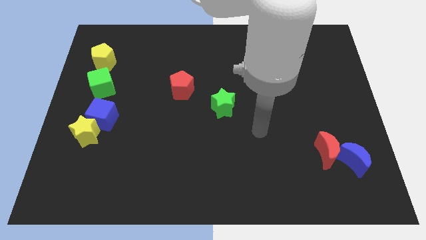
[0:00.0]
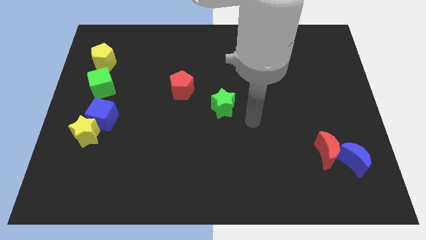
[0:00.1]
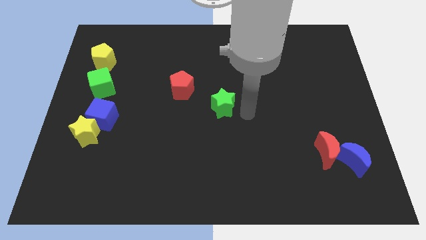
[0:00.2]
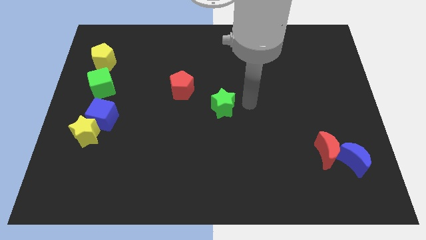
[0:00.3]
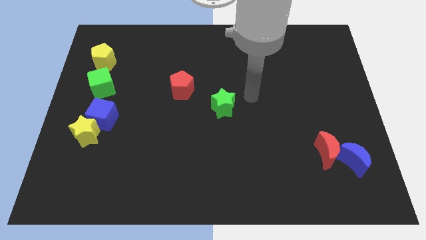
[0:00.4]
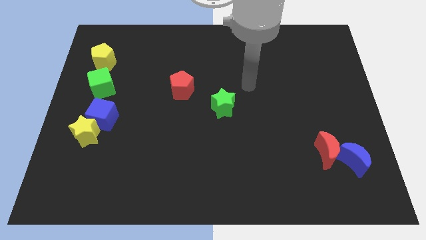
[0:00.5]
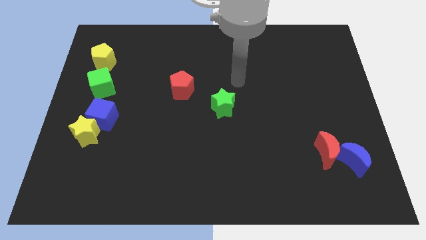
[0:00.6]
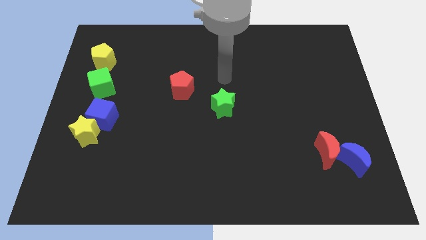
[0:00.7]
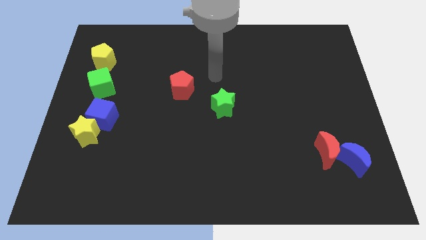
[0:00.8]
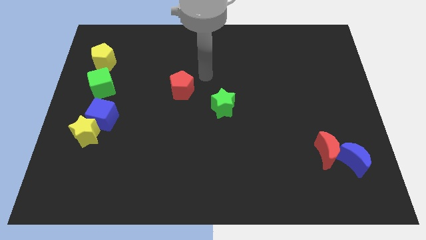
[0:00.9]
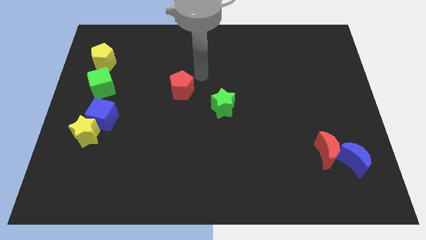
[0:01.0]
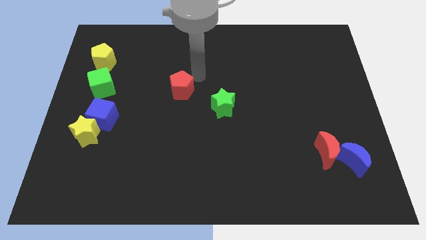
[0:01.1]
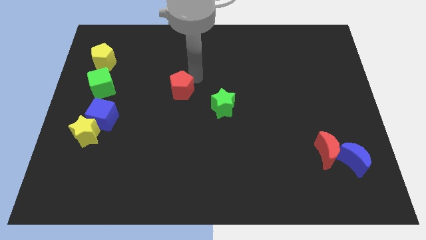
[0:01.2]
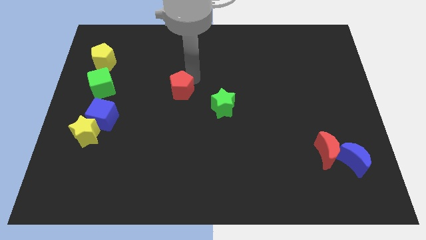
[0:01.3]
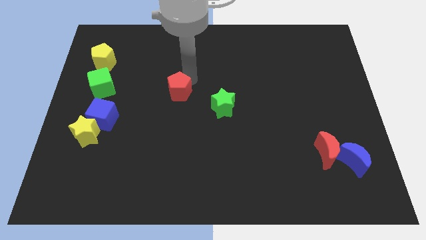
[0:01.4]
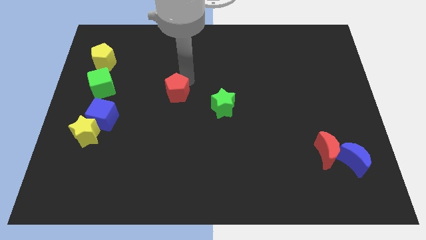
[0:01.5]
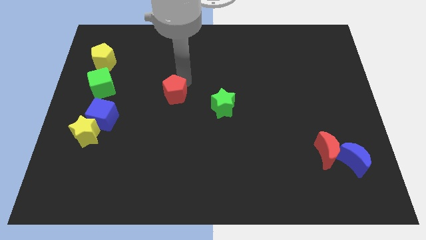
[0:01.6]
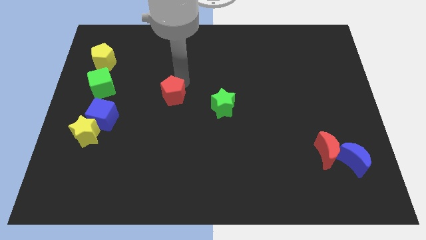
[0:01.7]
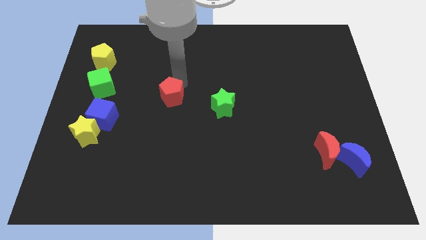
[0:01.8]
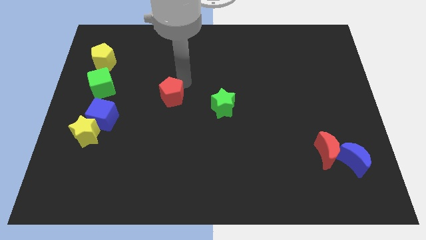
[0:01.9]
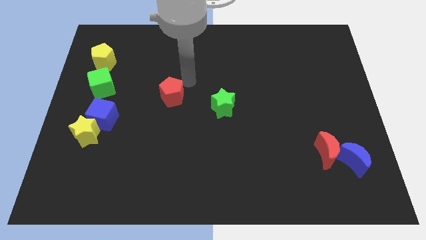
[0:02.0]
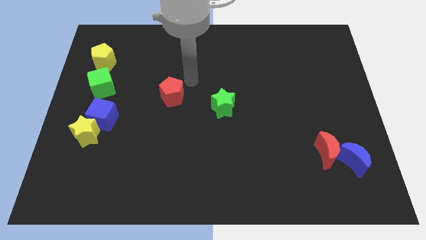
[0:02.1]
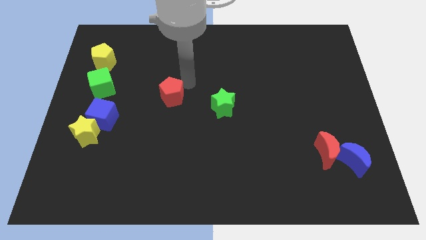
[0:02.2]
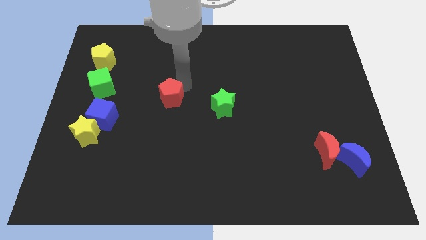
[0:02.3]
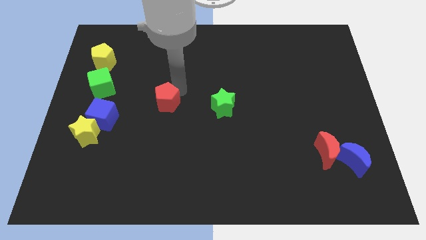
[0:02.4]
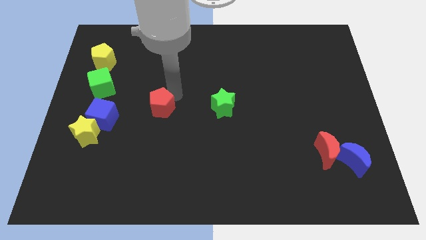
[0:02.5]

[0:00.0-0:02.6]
move the red pentagon somewhat downwards and to the left

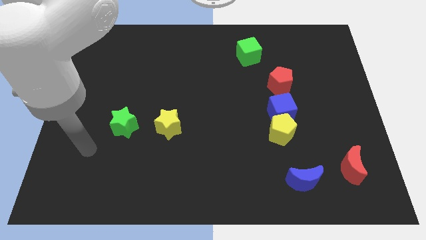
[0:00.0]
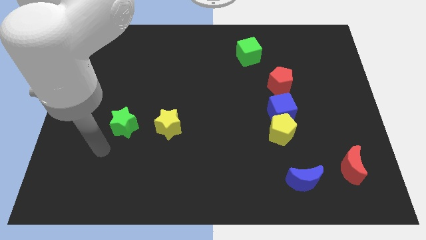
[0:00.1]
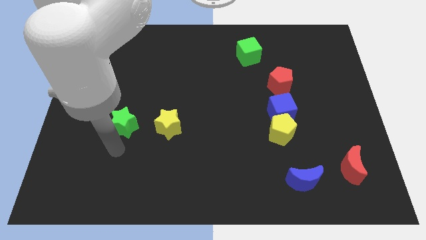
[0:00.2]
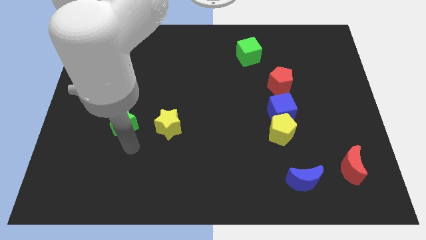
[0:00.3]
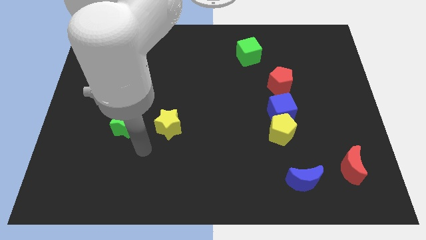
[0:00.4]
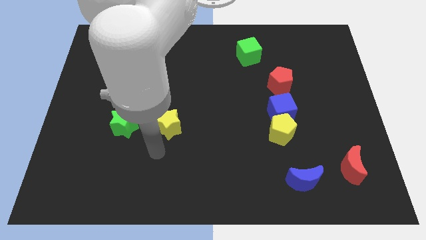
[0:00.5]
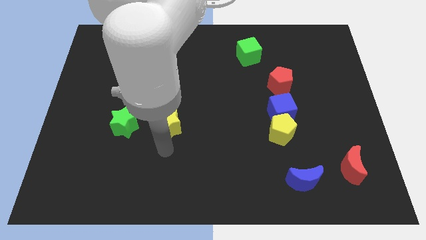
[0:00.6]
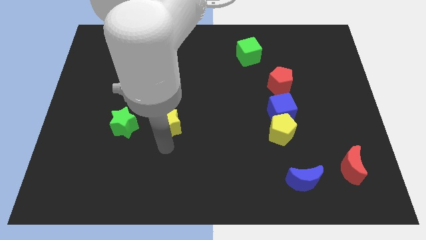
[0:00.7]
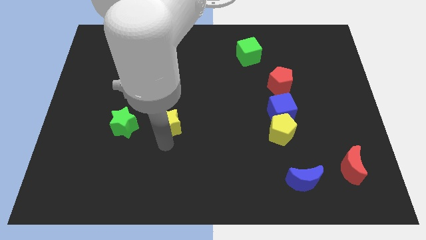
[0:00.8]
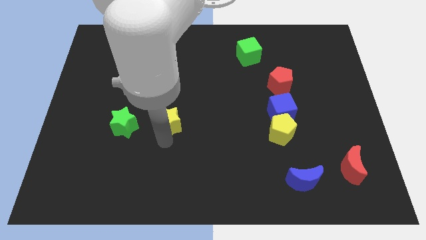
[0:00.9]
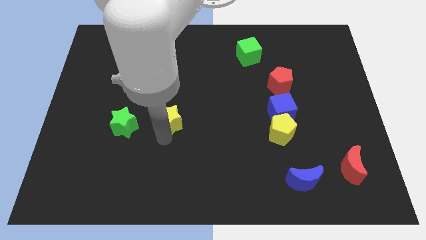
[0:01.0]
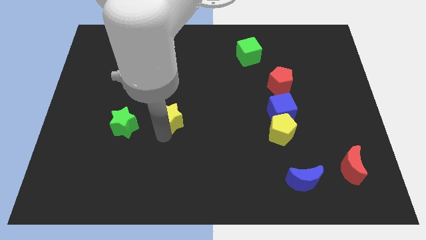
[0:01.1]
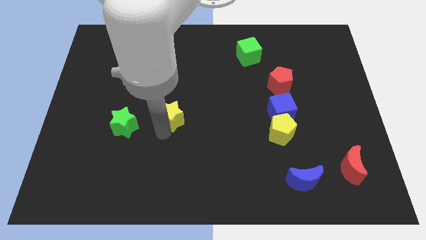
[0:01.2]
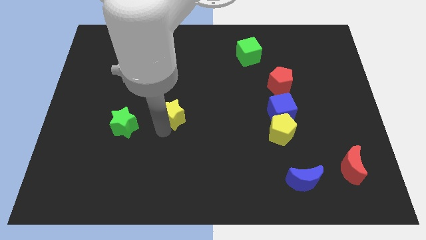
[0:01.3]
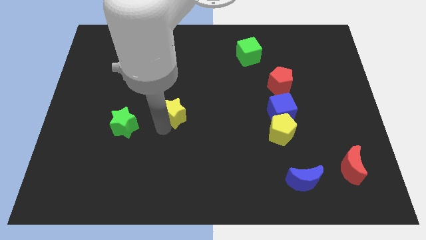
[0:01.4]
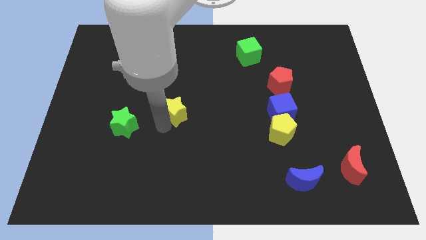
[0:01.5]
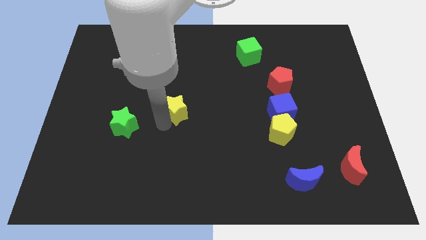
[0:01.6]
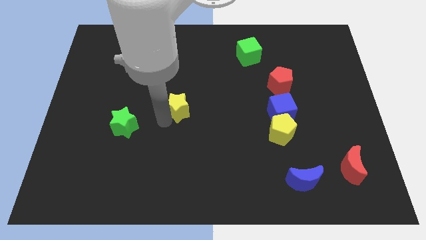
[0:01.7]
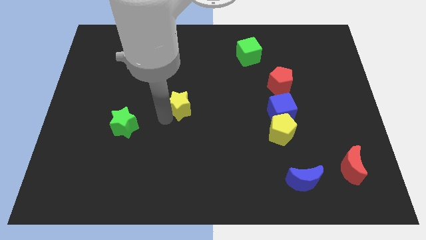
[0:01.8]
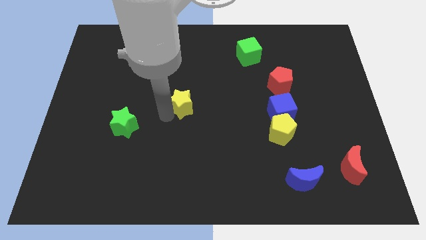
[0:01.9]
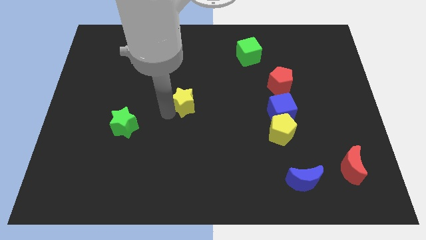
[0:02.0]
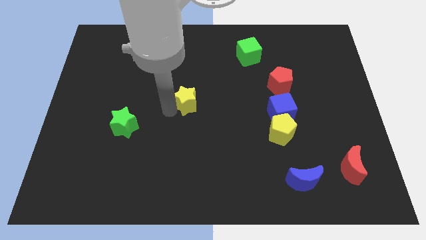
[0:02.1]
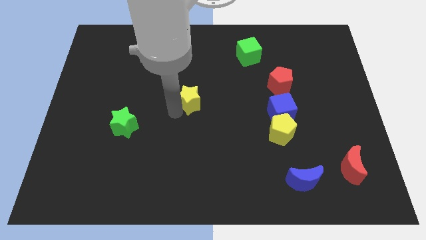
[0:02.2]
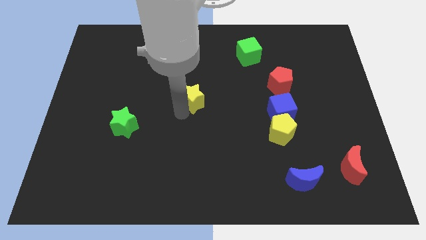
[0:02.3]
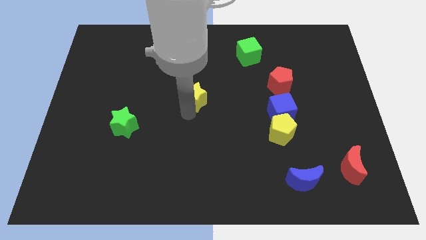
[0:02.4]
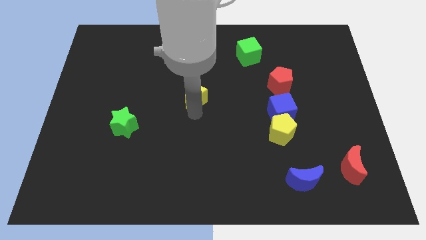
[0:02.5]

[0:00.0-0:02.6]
slightly push the yellow star upwards

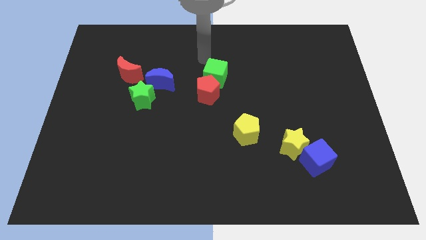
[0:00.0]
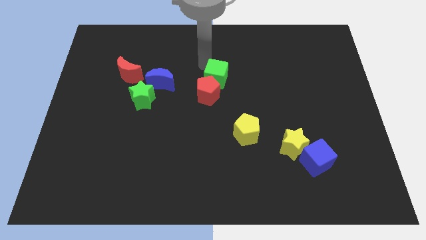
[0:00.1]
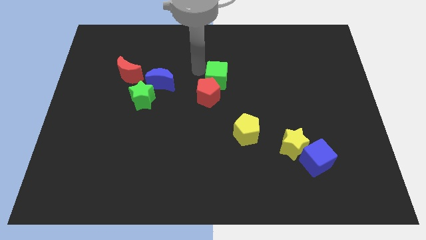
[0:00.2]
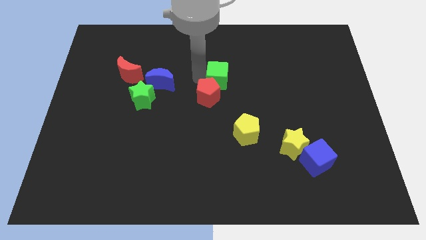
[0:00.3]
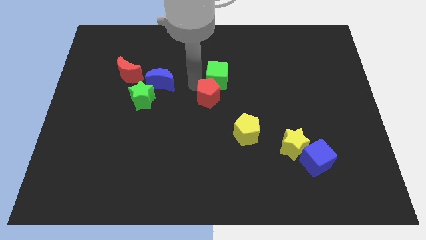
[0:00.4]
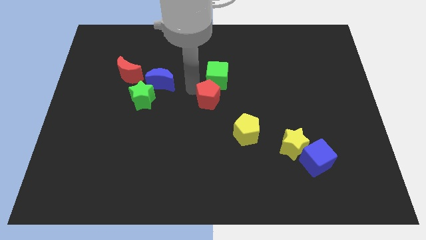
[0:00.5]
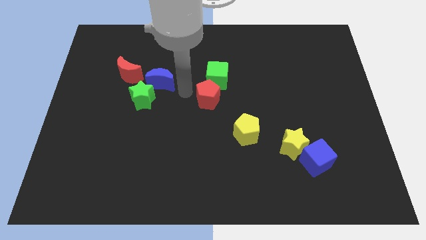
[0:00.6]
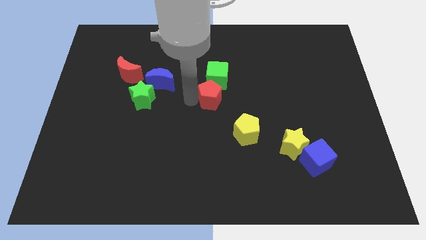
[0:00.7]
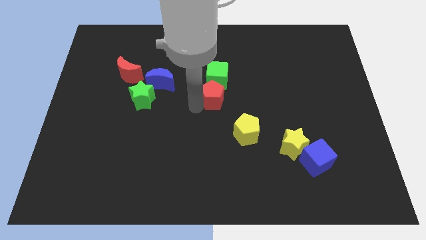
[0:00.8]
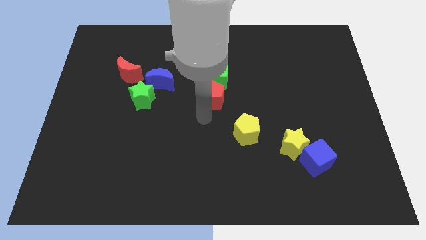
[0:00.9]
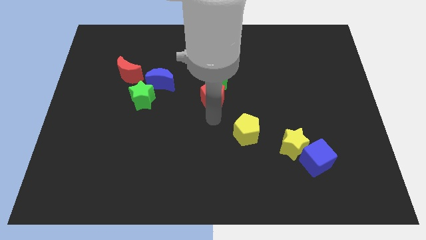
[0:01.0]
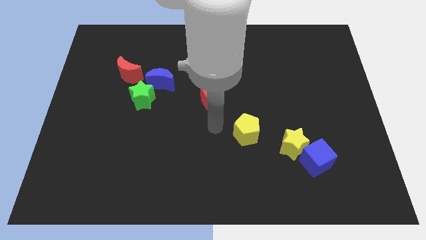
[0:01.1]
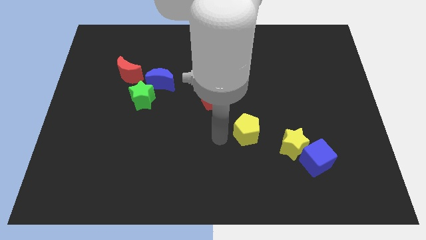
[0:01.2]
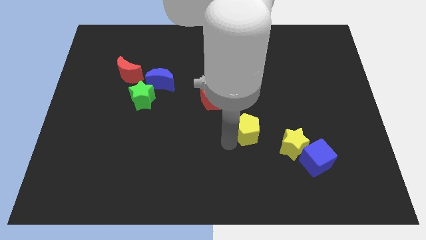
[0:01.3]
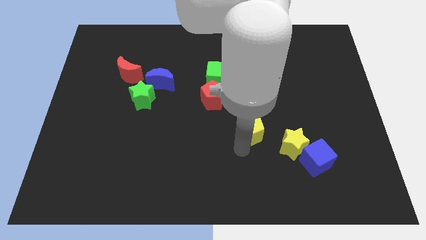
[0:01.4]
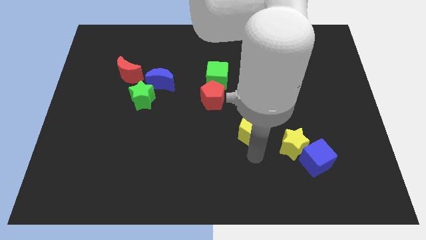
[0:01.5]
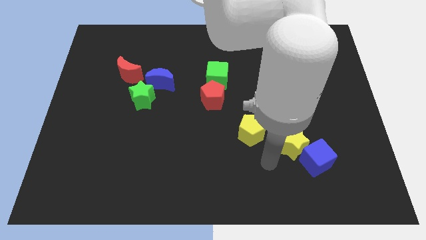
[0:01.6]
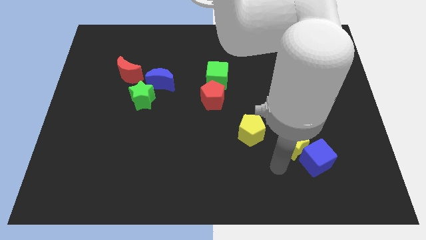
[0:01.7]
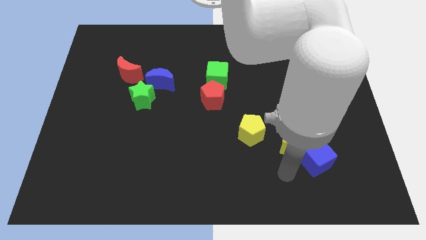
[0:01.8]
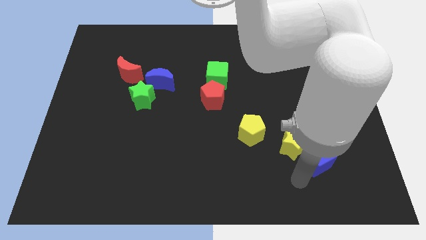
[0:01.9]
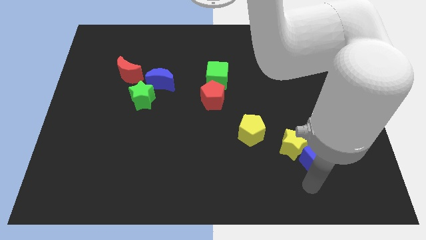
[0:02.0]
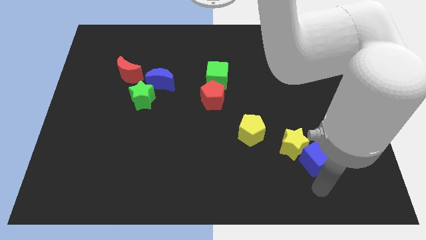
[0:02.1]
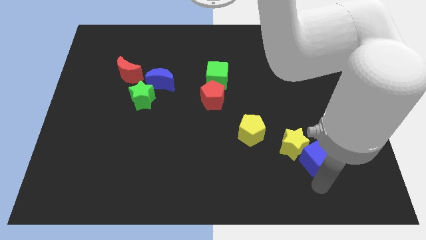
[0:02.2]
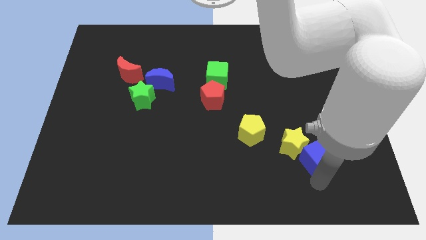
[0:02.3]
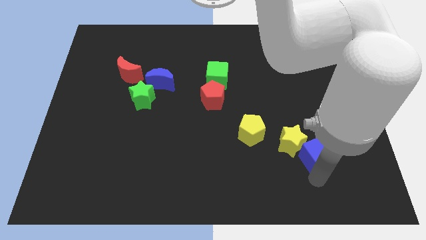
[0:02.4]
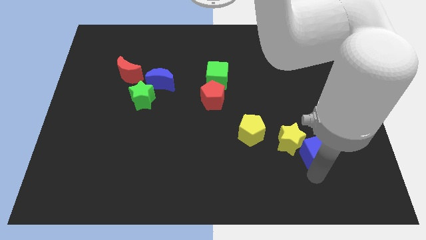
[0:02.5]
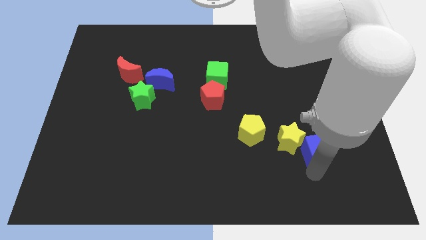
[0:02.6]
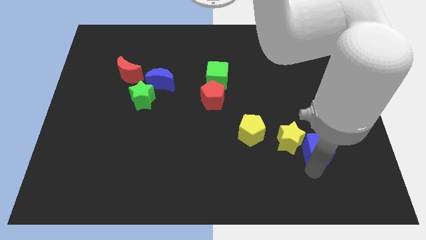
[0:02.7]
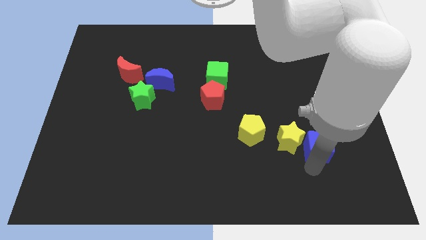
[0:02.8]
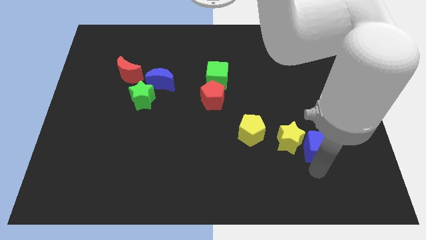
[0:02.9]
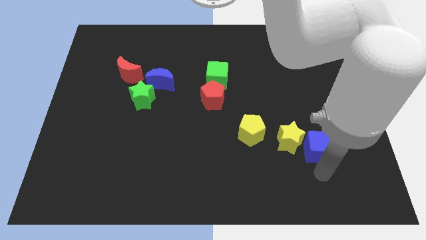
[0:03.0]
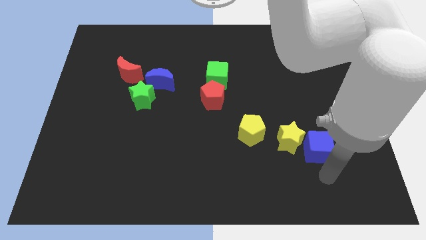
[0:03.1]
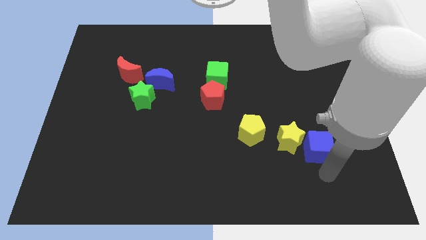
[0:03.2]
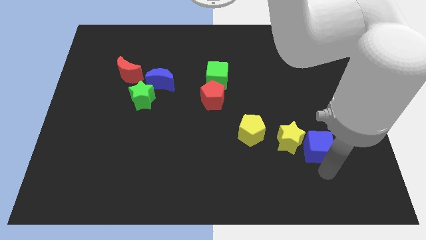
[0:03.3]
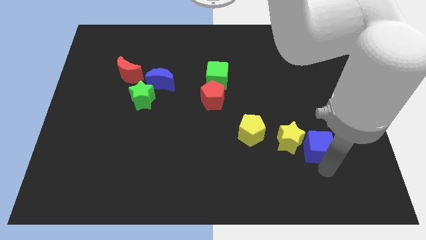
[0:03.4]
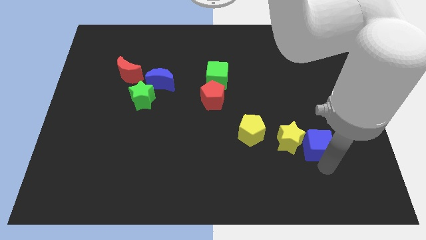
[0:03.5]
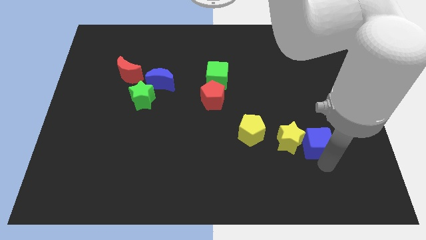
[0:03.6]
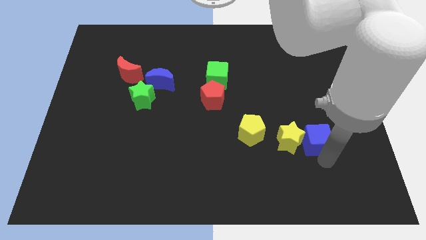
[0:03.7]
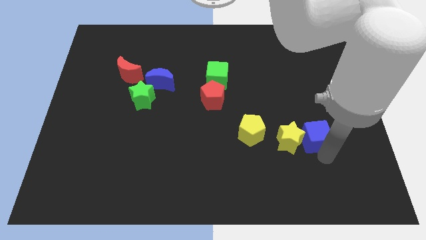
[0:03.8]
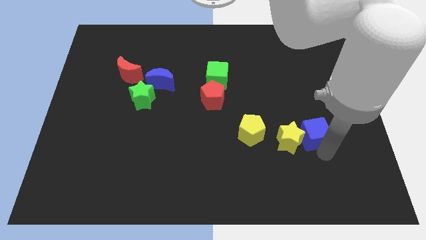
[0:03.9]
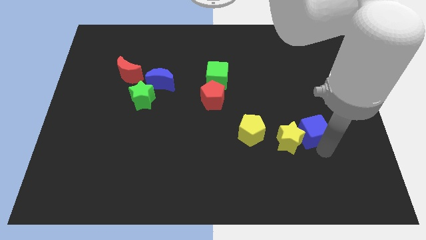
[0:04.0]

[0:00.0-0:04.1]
push the blue cube up somewhat
